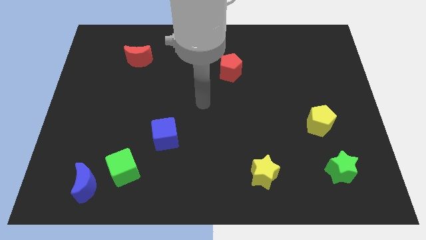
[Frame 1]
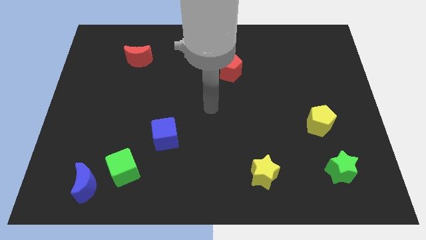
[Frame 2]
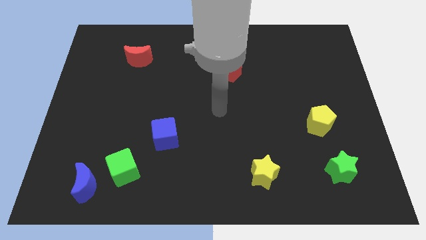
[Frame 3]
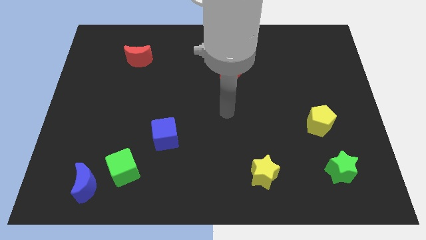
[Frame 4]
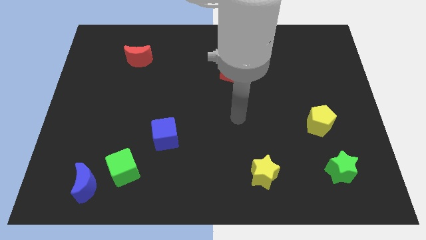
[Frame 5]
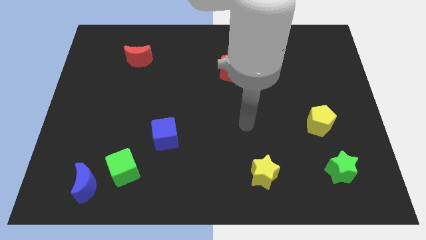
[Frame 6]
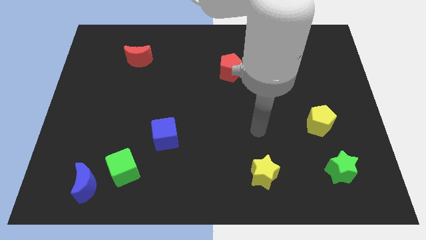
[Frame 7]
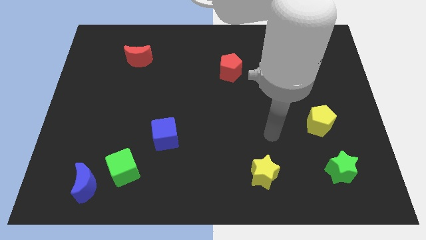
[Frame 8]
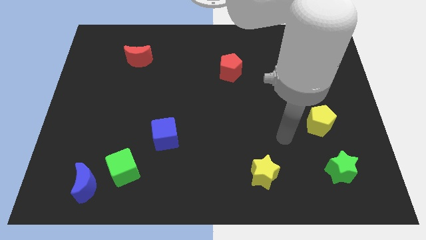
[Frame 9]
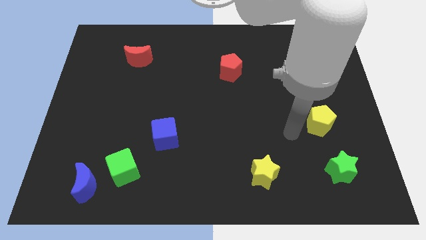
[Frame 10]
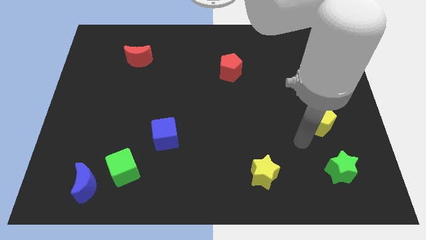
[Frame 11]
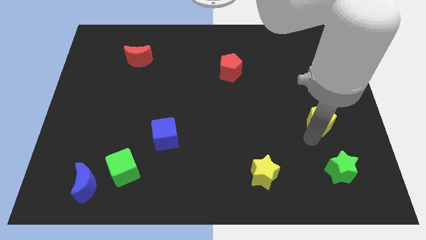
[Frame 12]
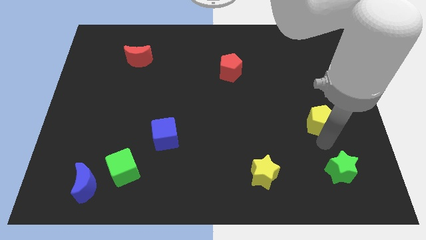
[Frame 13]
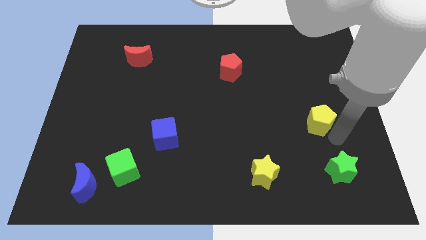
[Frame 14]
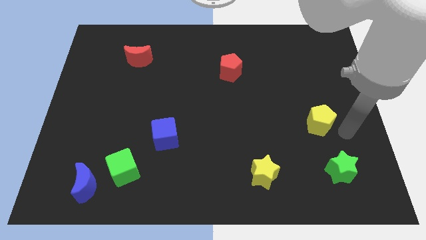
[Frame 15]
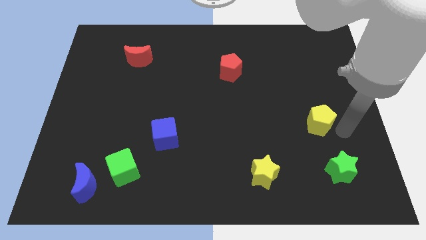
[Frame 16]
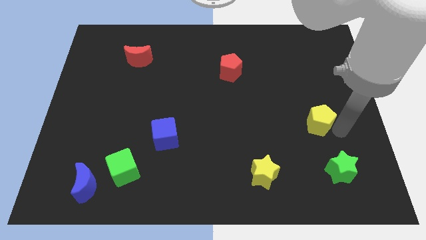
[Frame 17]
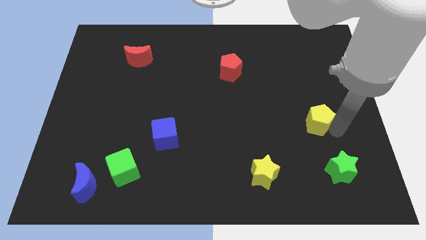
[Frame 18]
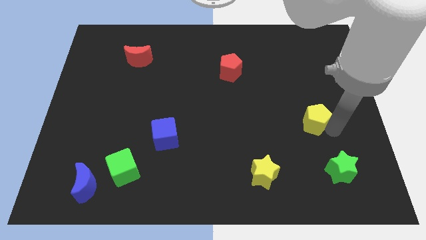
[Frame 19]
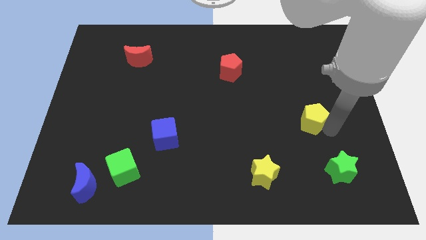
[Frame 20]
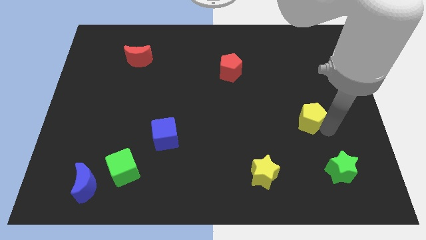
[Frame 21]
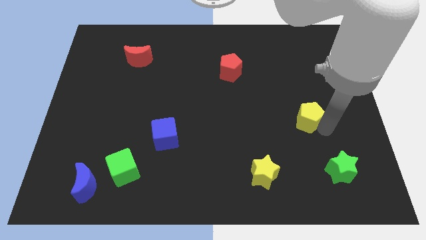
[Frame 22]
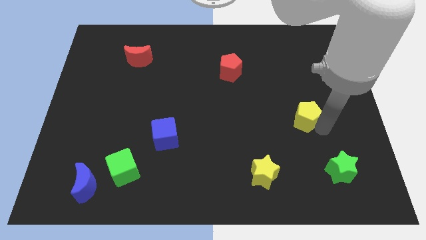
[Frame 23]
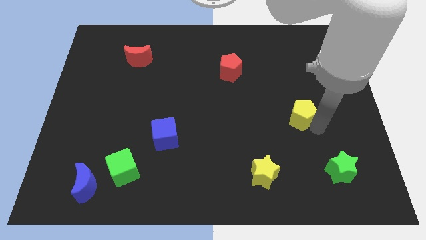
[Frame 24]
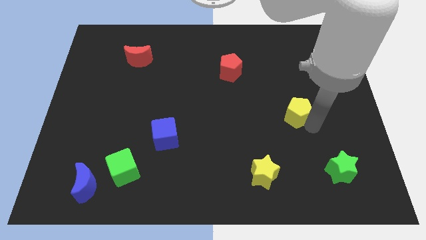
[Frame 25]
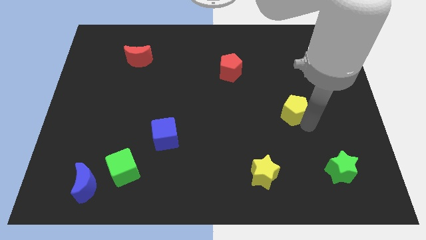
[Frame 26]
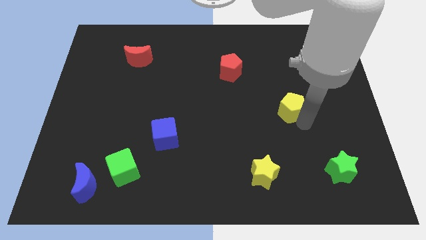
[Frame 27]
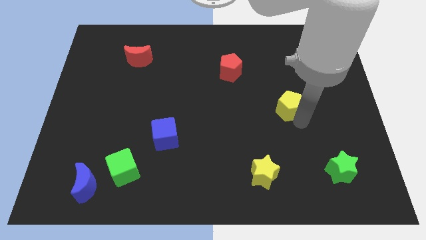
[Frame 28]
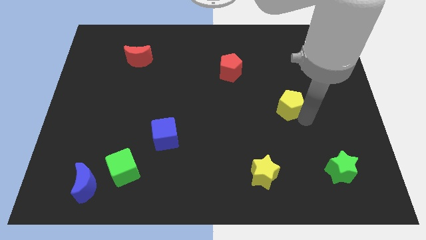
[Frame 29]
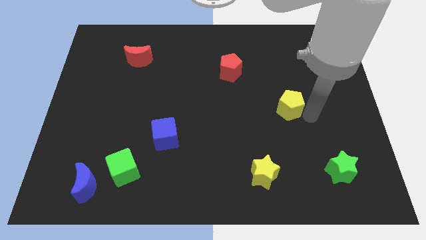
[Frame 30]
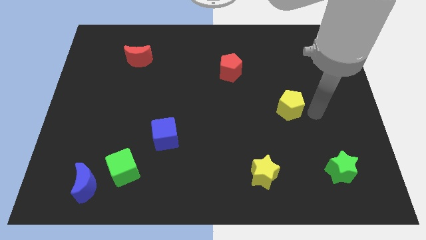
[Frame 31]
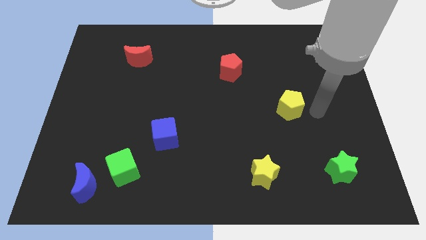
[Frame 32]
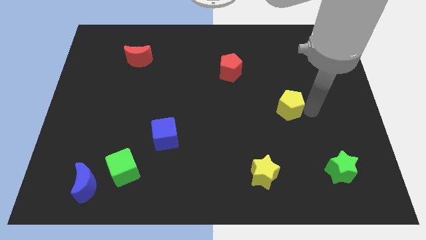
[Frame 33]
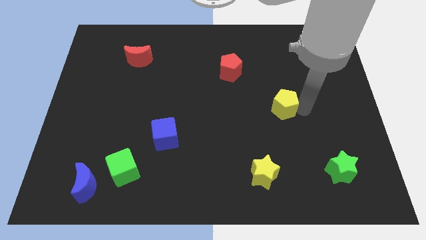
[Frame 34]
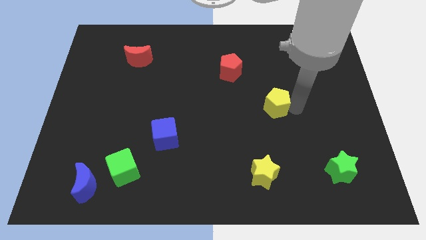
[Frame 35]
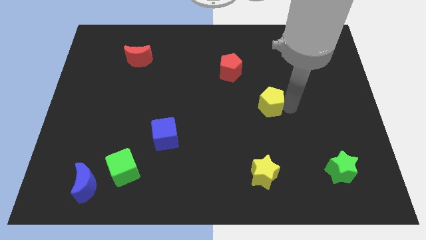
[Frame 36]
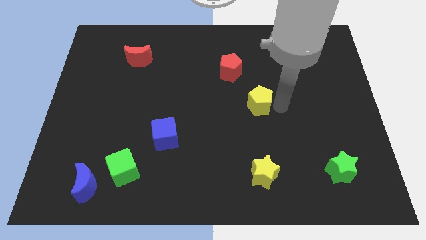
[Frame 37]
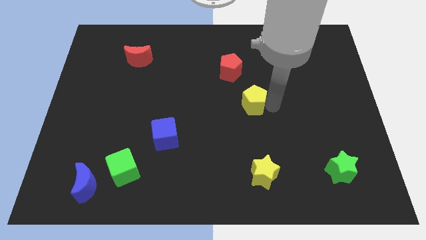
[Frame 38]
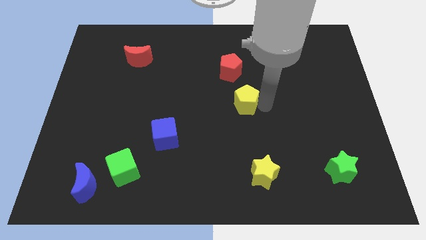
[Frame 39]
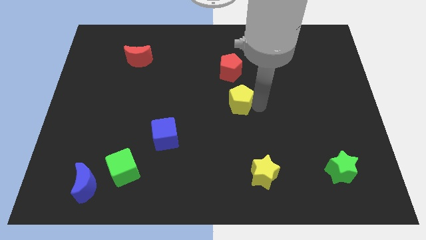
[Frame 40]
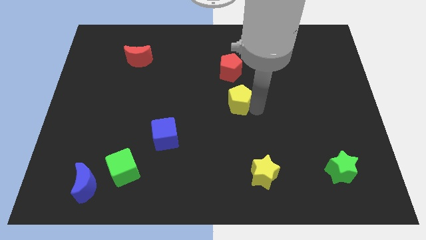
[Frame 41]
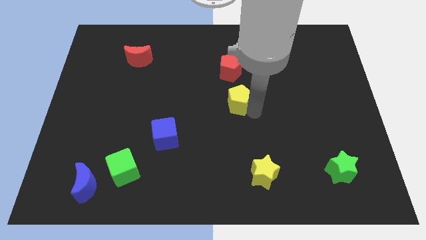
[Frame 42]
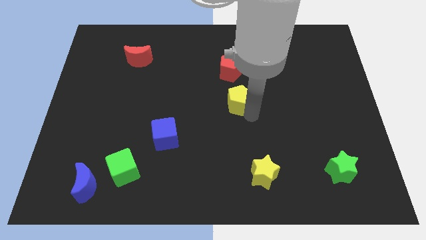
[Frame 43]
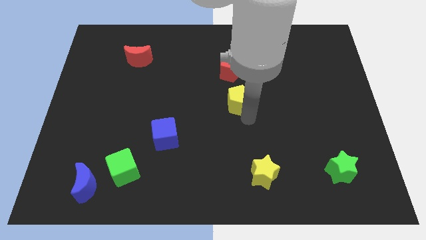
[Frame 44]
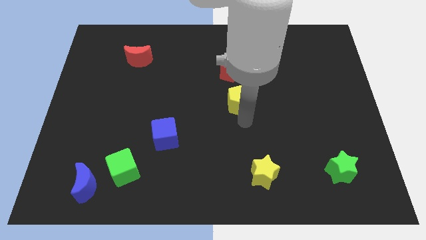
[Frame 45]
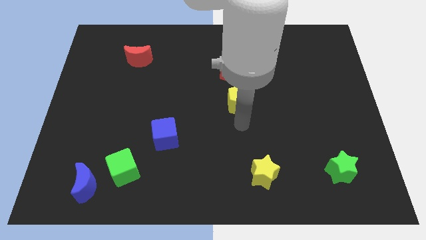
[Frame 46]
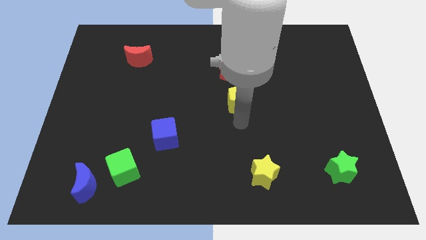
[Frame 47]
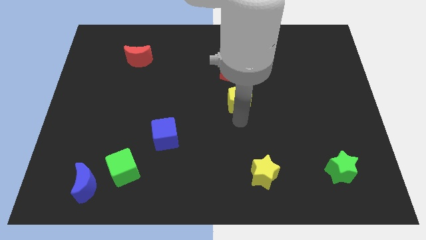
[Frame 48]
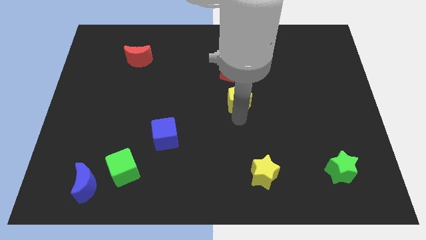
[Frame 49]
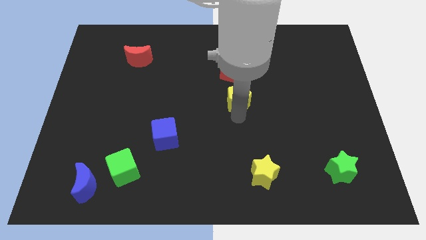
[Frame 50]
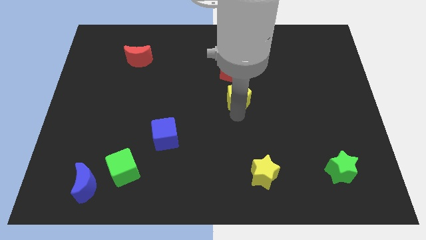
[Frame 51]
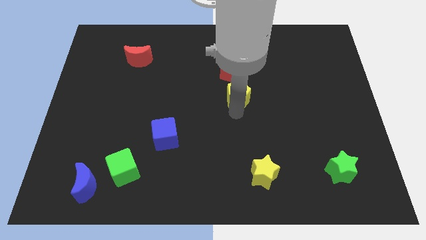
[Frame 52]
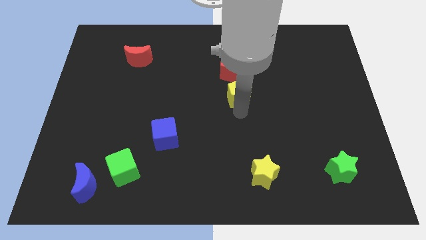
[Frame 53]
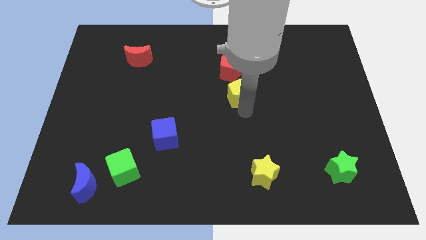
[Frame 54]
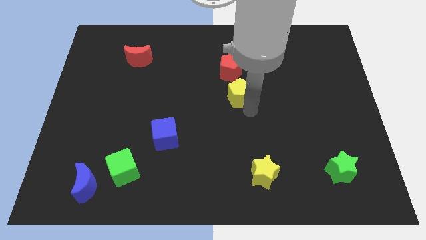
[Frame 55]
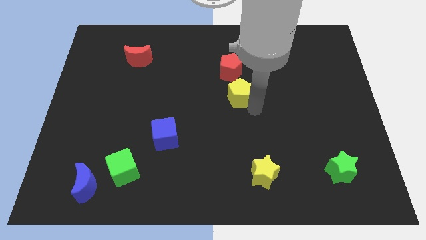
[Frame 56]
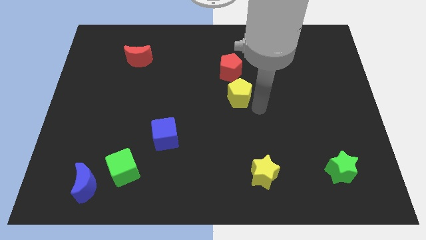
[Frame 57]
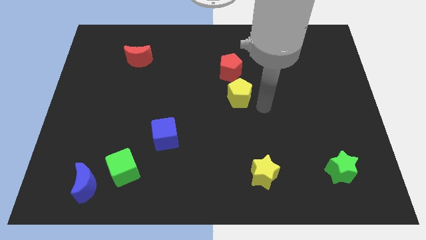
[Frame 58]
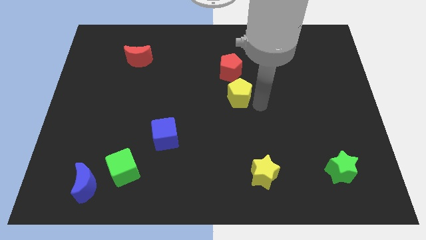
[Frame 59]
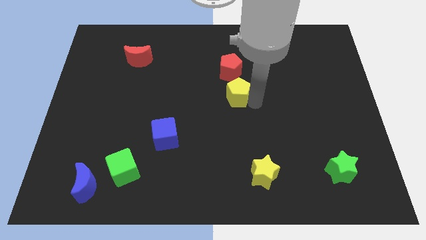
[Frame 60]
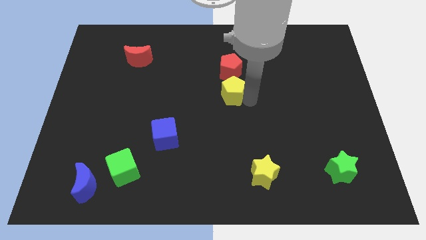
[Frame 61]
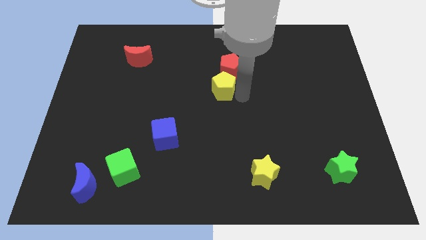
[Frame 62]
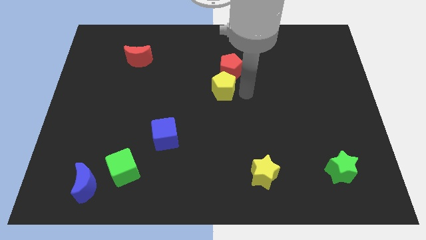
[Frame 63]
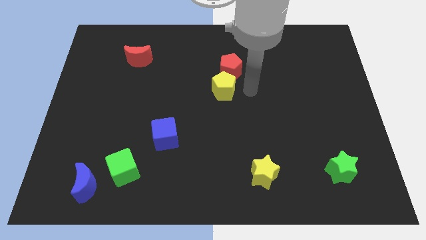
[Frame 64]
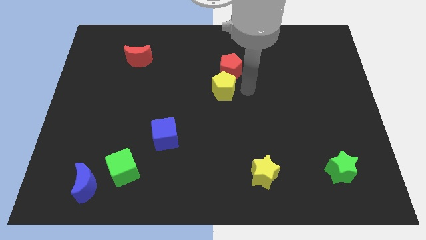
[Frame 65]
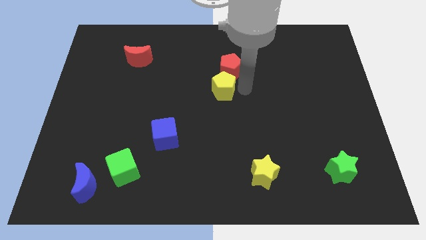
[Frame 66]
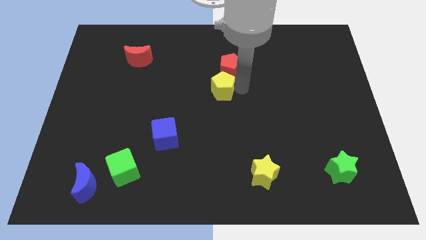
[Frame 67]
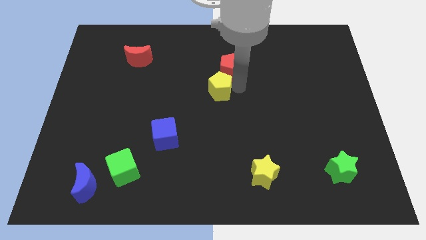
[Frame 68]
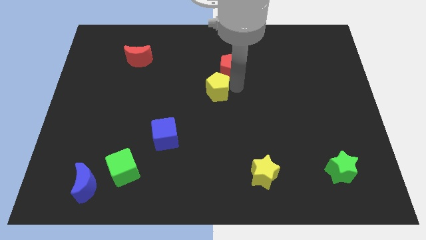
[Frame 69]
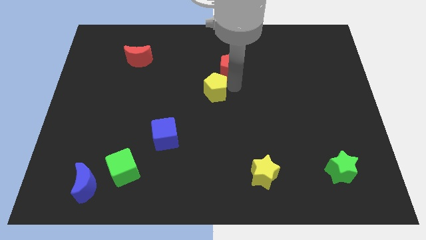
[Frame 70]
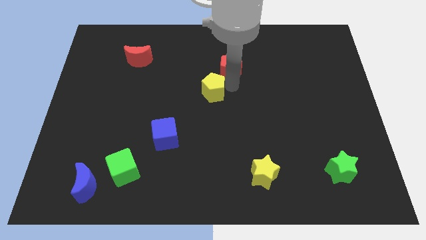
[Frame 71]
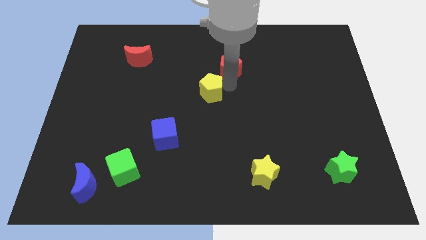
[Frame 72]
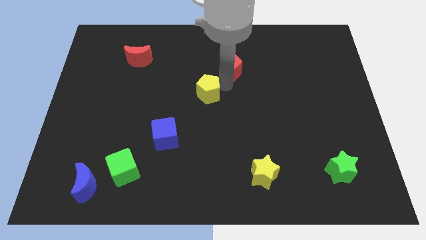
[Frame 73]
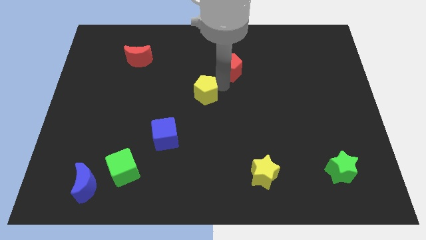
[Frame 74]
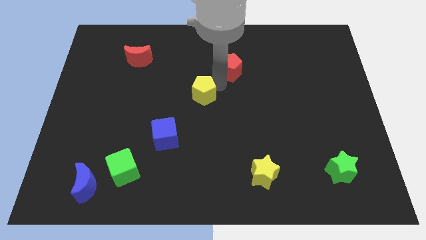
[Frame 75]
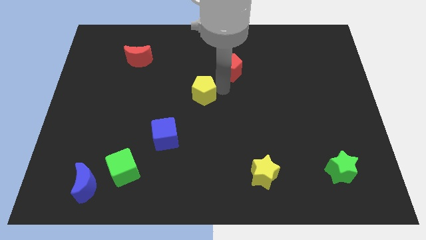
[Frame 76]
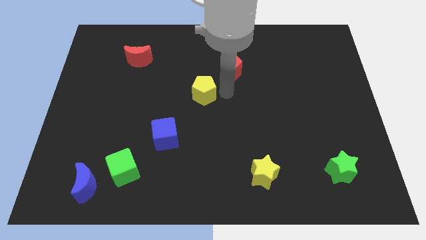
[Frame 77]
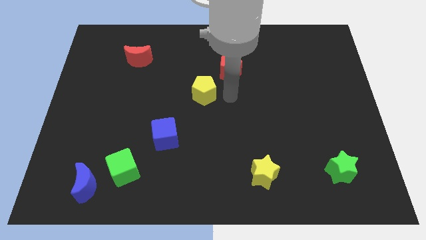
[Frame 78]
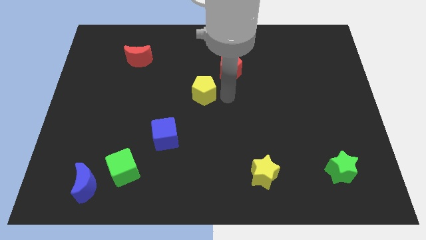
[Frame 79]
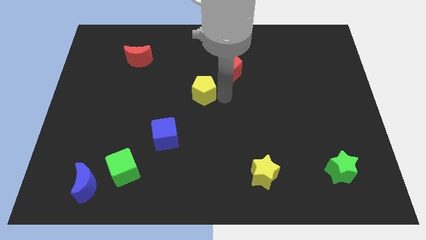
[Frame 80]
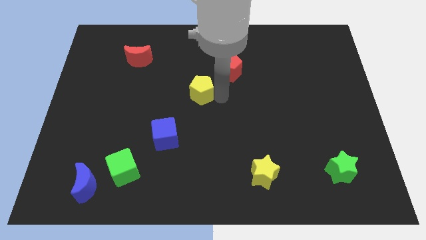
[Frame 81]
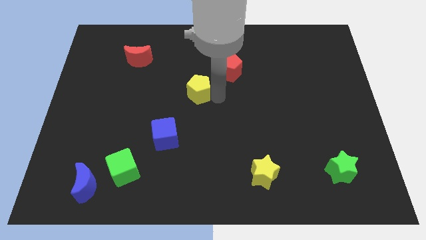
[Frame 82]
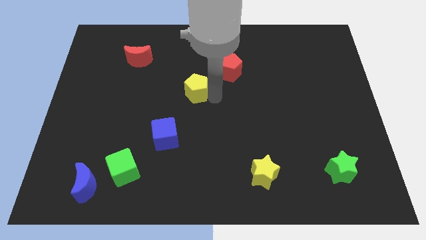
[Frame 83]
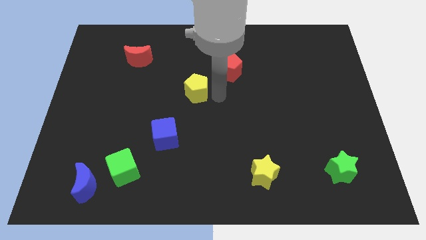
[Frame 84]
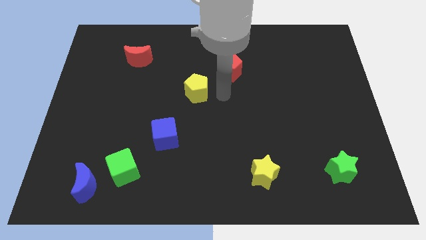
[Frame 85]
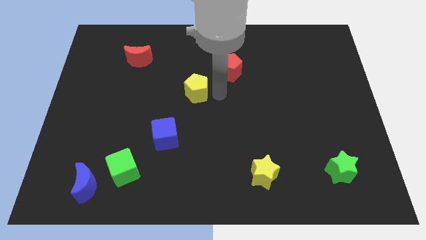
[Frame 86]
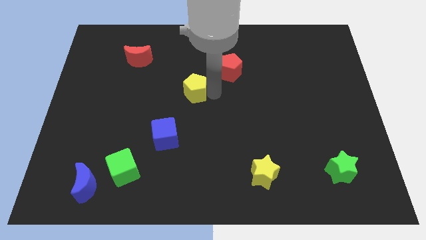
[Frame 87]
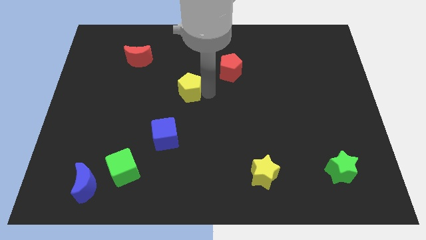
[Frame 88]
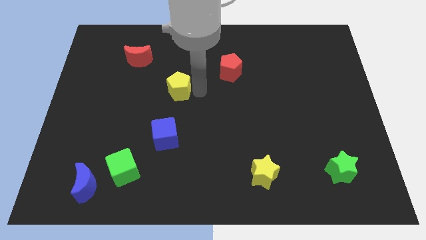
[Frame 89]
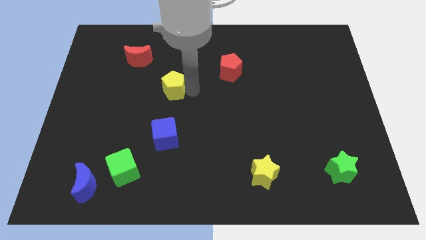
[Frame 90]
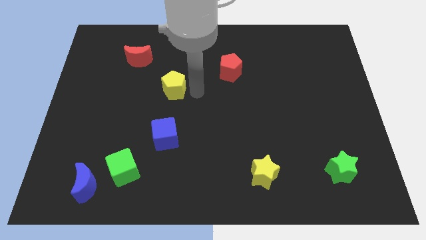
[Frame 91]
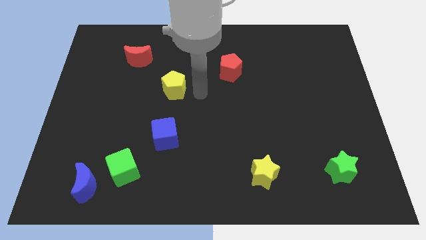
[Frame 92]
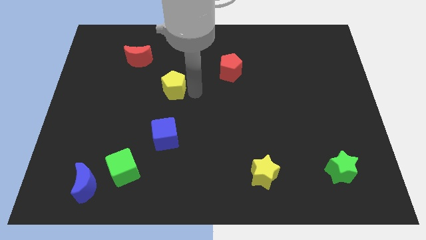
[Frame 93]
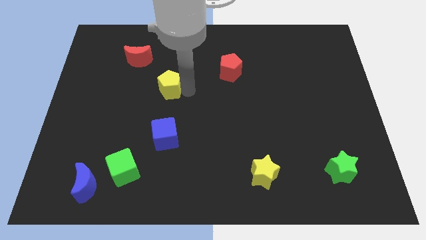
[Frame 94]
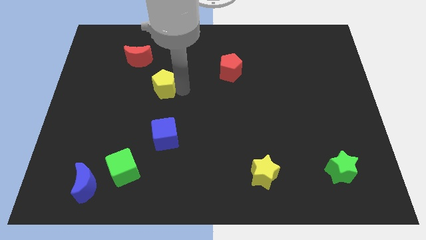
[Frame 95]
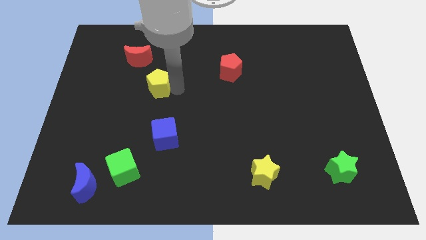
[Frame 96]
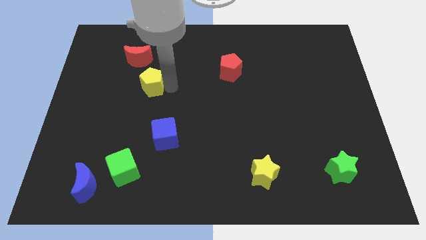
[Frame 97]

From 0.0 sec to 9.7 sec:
push the yellow pentagon below the red moon
